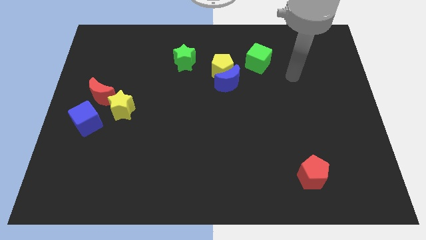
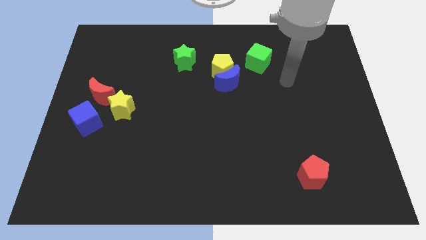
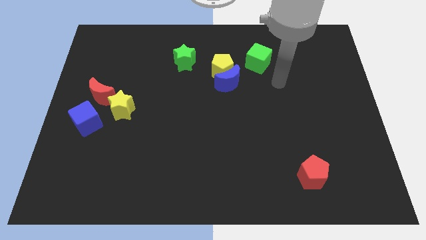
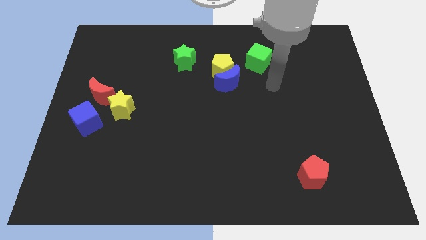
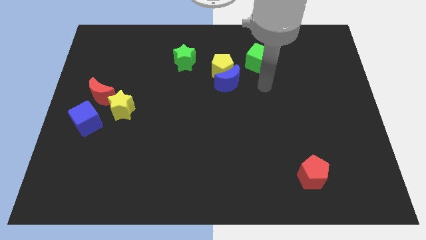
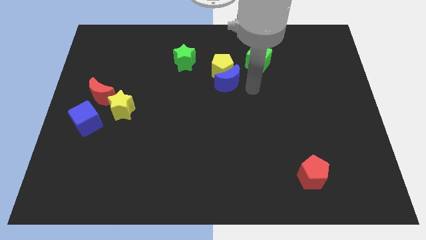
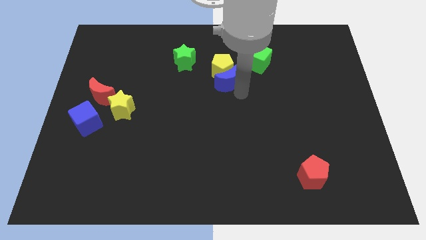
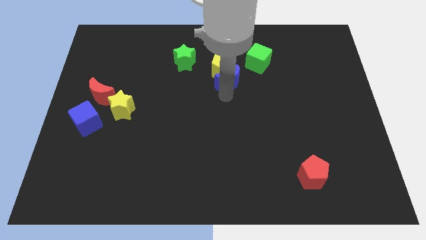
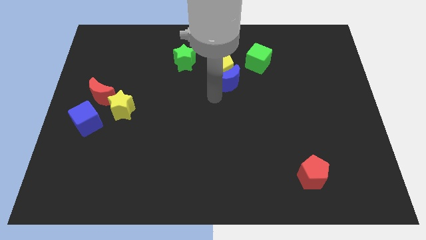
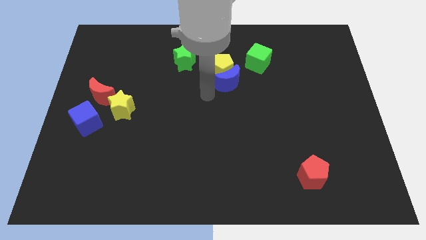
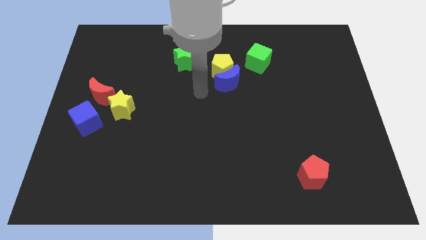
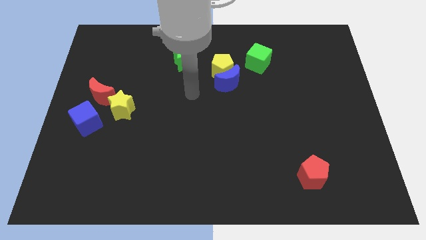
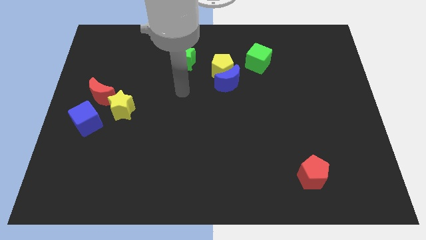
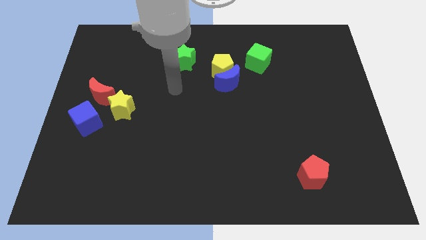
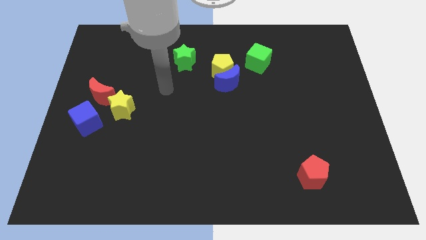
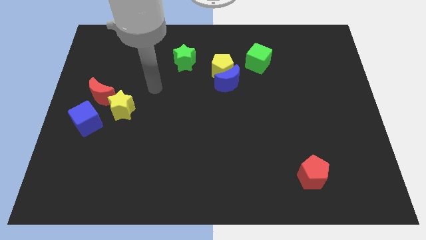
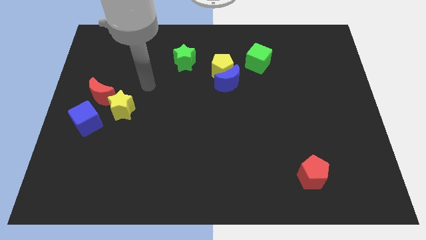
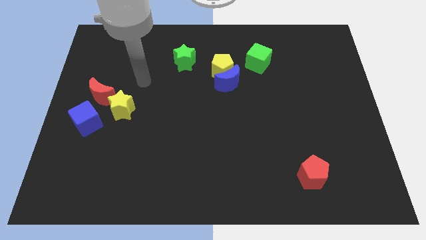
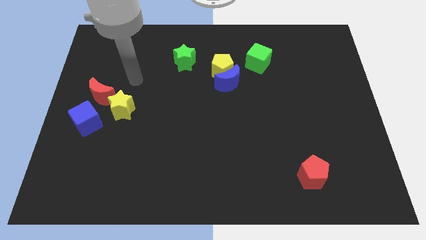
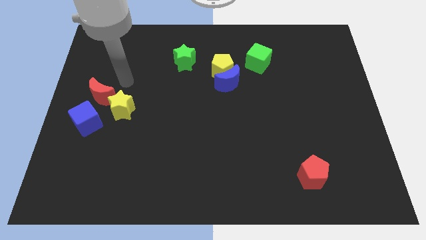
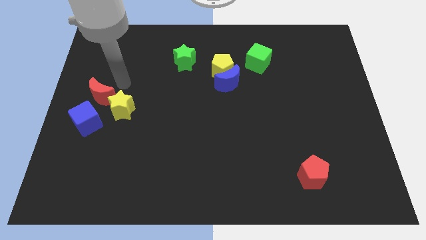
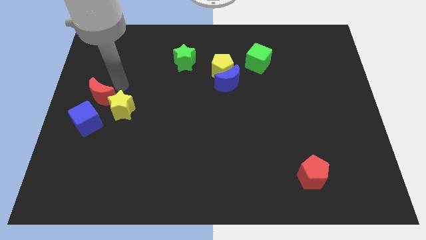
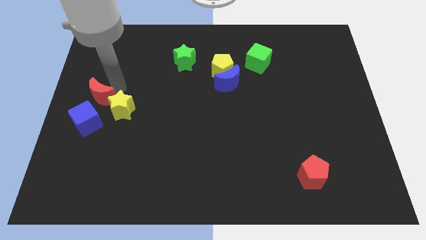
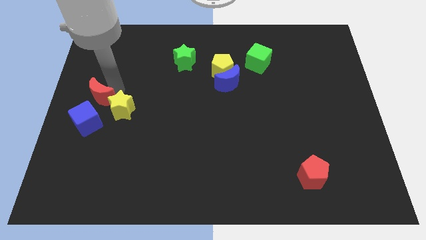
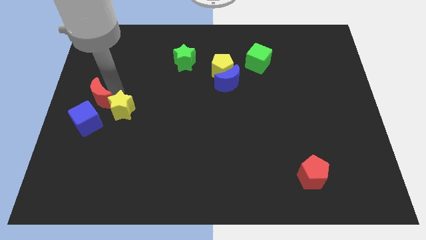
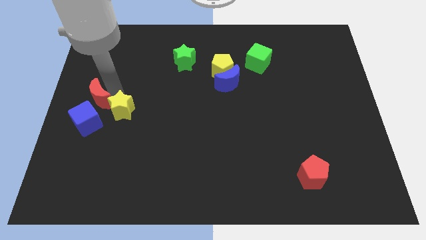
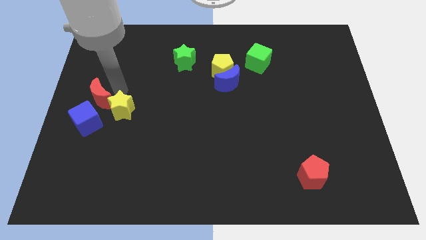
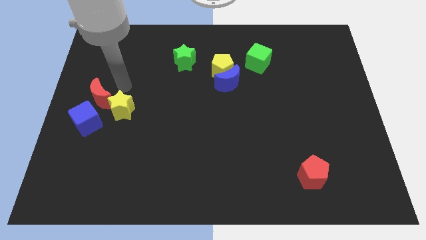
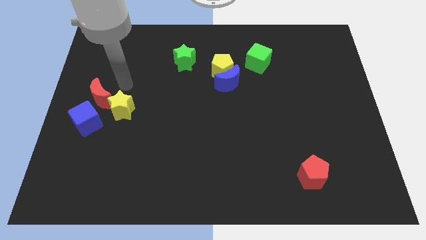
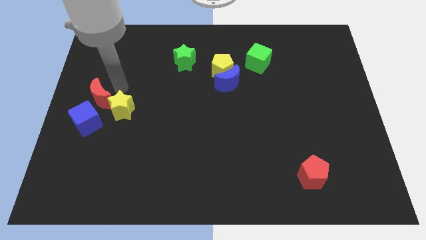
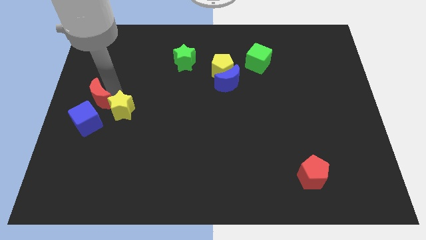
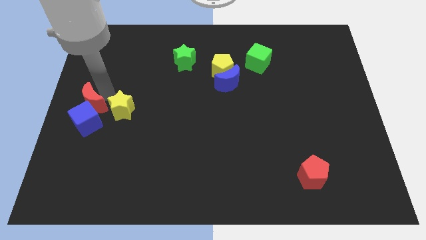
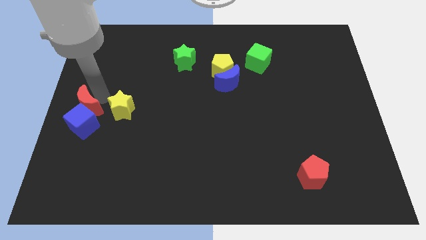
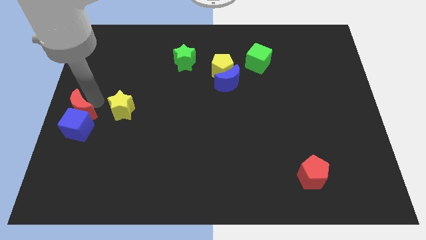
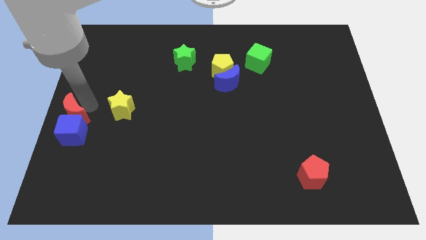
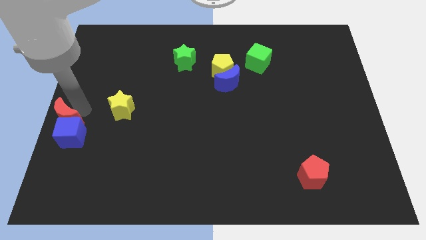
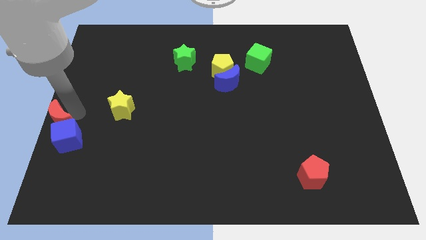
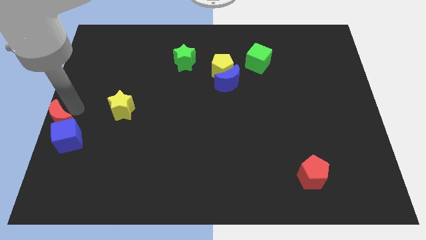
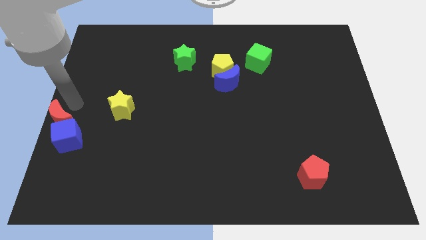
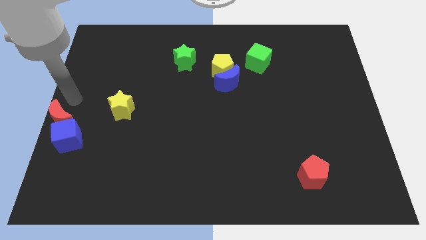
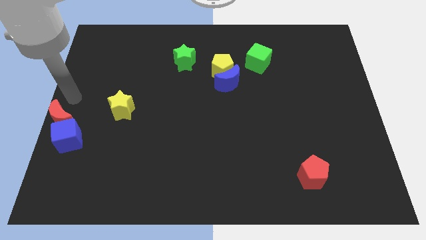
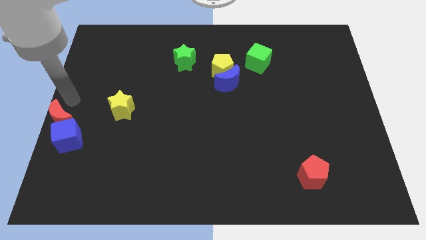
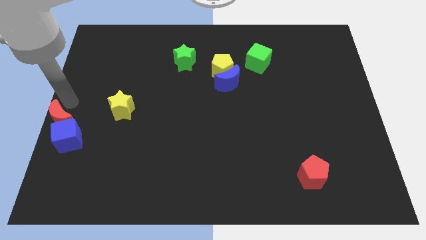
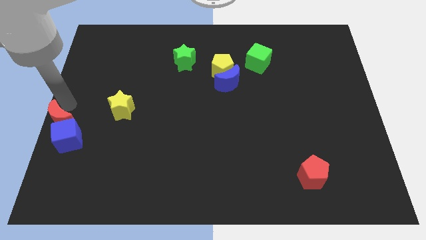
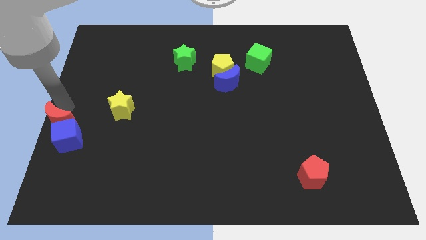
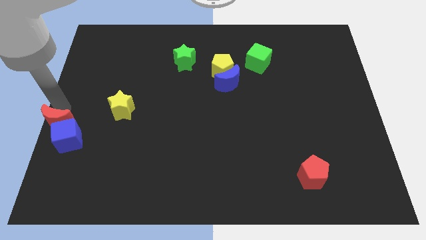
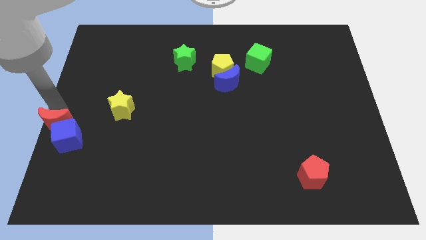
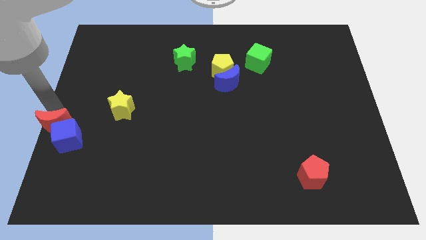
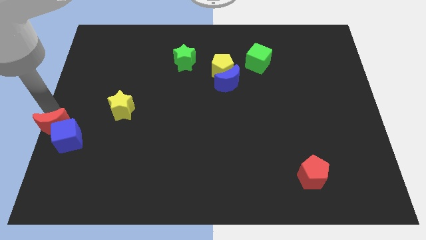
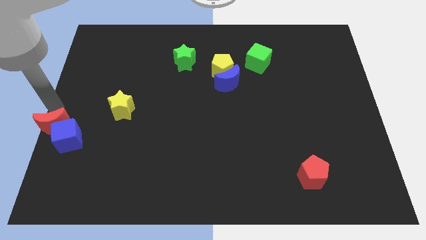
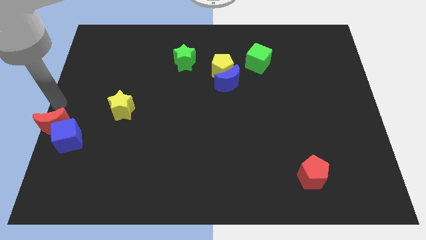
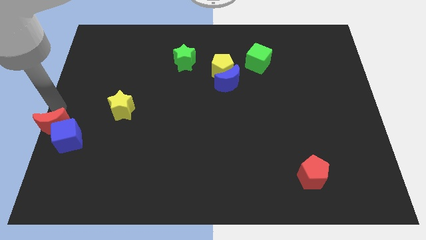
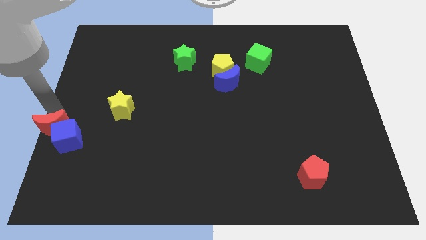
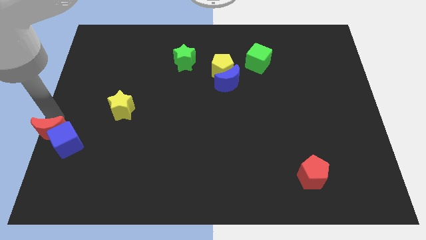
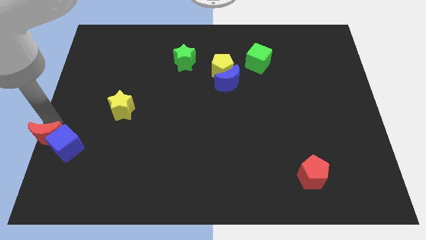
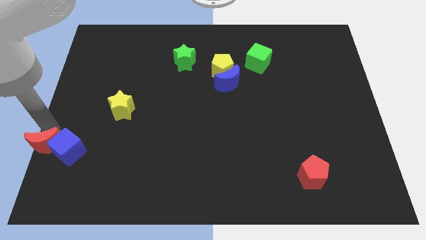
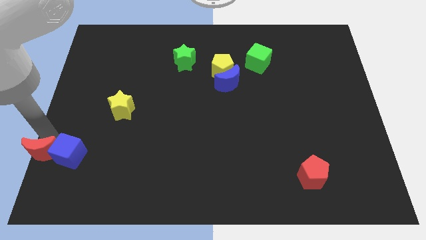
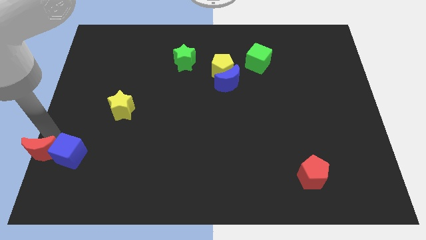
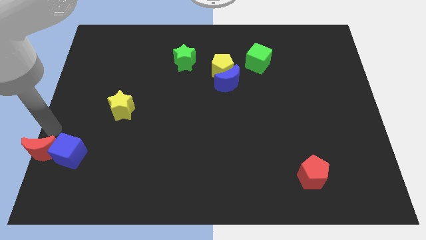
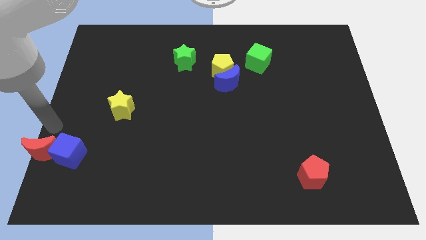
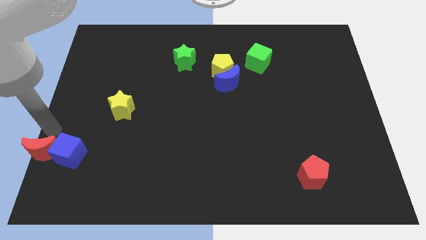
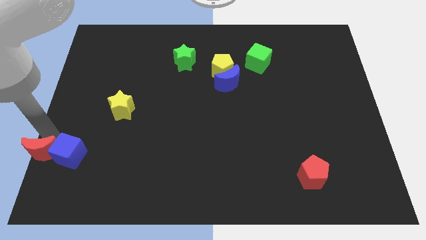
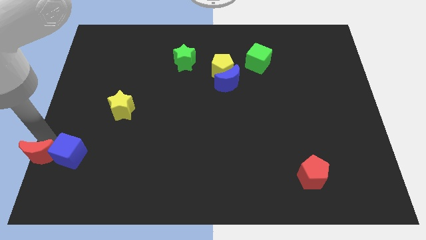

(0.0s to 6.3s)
slide the red moon to the lower left corner

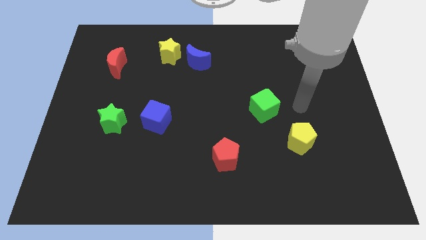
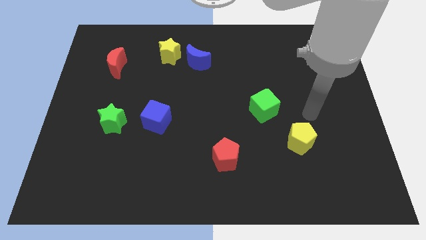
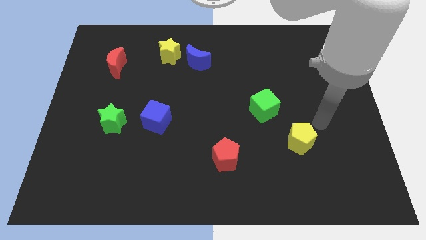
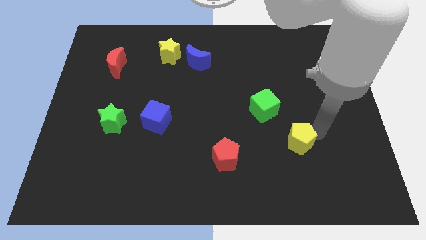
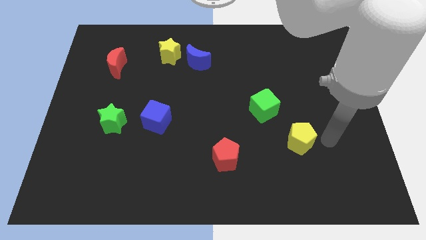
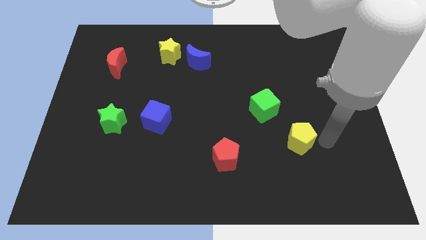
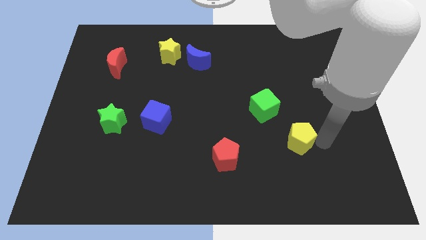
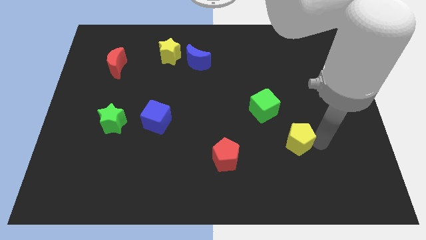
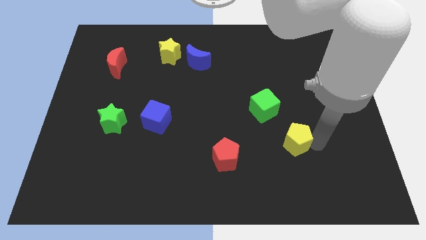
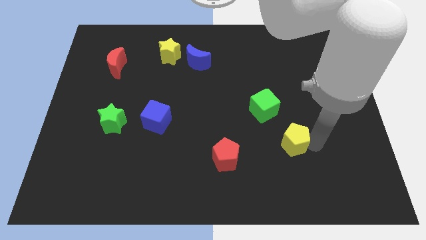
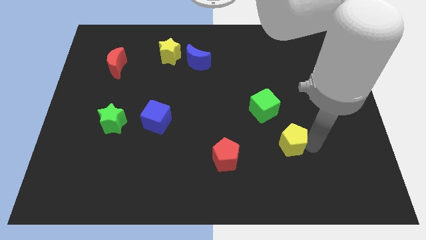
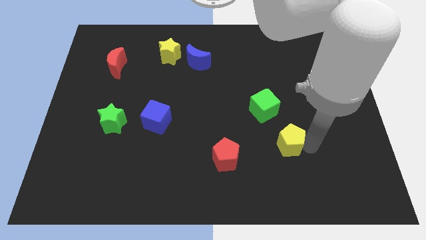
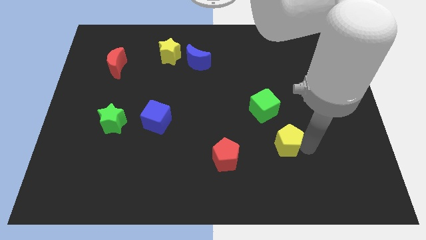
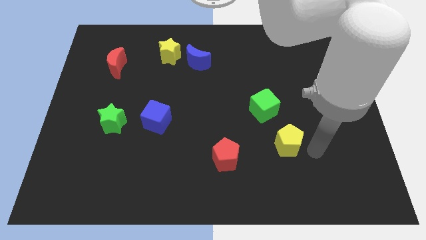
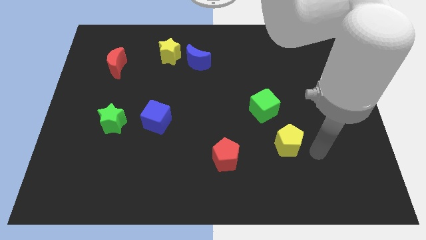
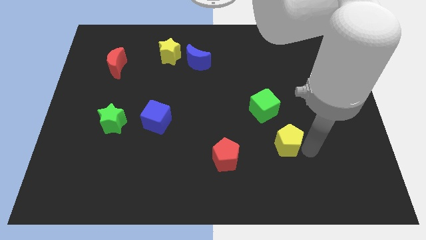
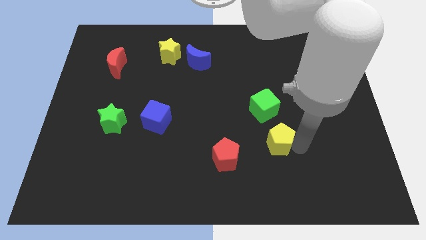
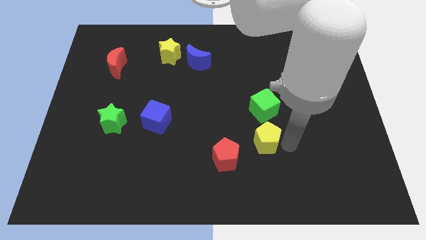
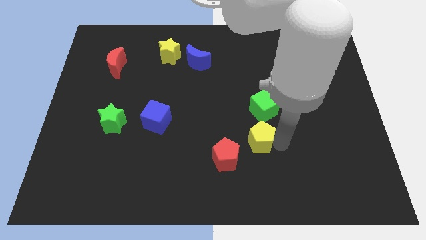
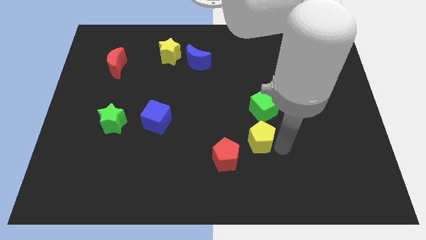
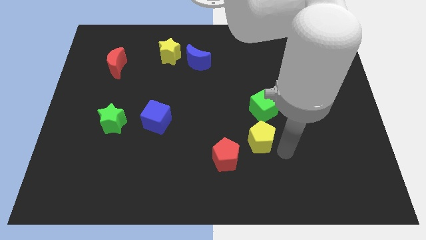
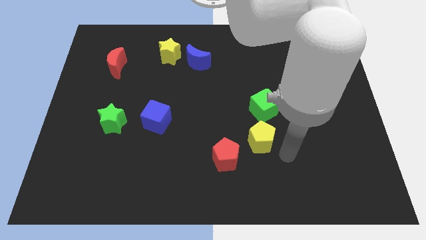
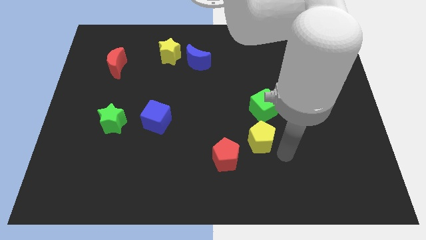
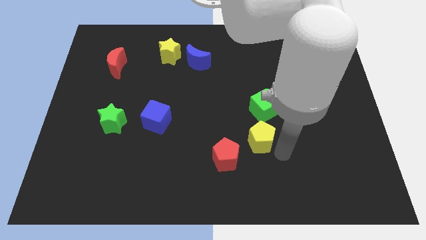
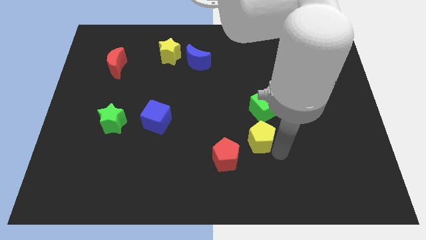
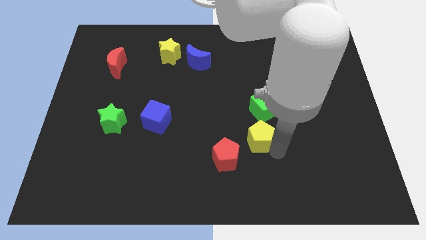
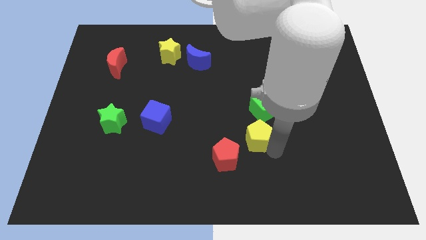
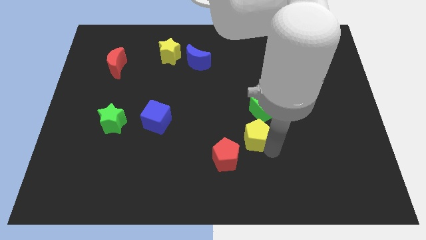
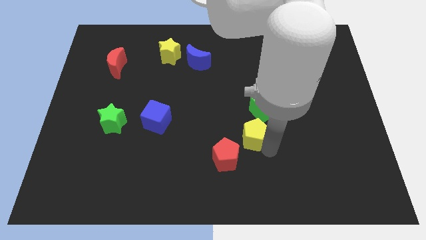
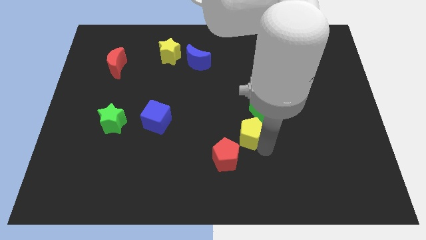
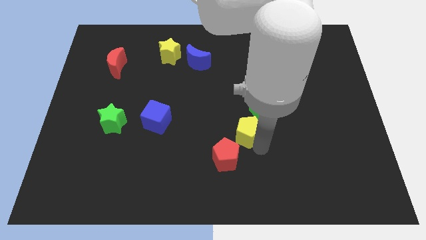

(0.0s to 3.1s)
slide the yellow pentagon to the middle of the board
